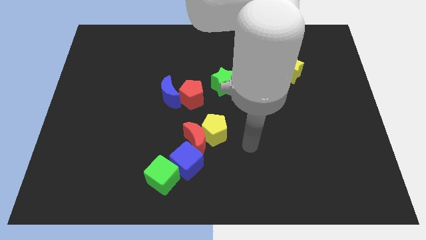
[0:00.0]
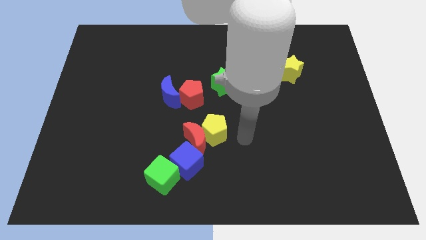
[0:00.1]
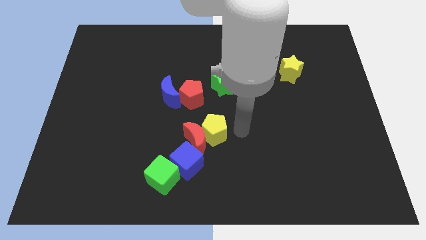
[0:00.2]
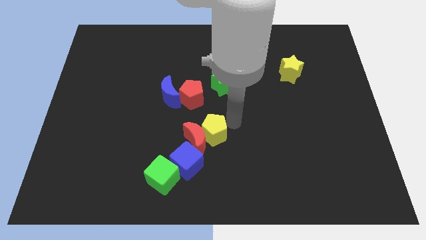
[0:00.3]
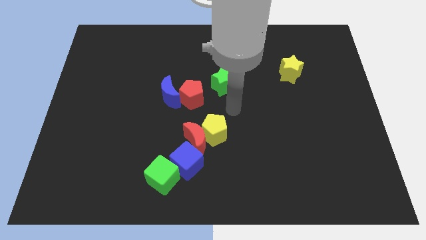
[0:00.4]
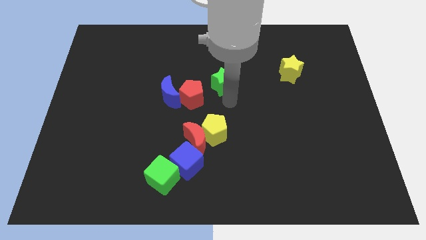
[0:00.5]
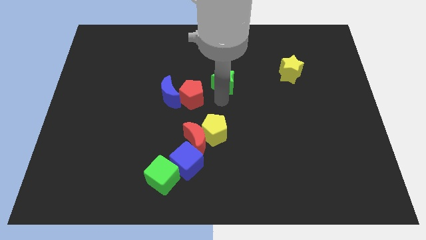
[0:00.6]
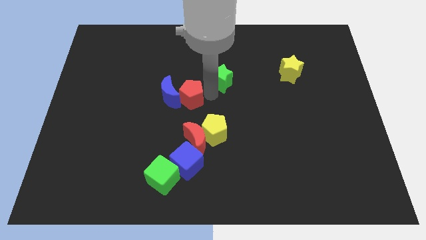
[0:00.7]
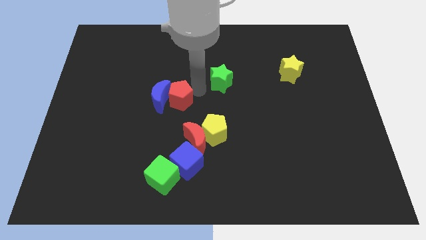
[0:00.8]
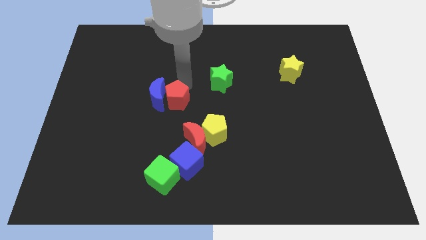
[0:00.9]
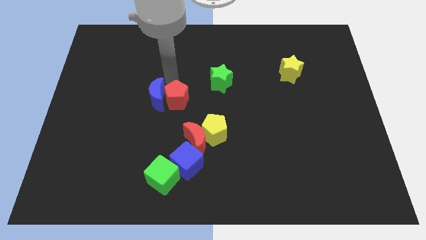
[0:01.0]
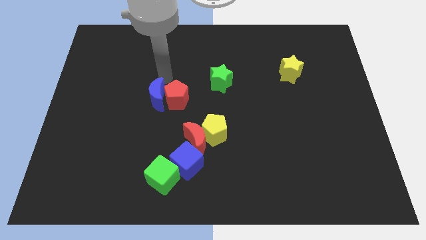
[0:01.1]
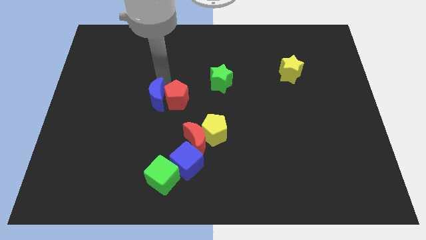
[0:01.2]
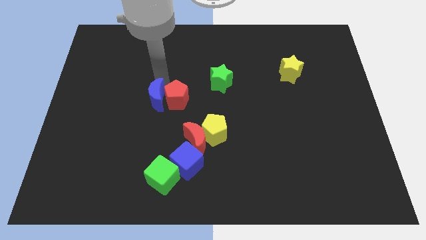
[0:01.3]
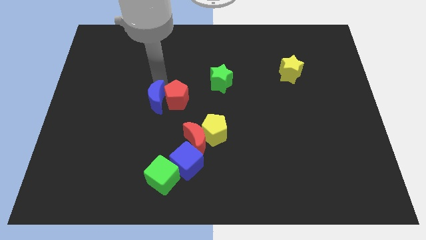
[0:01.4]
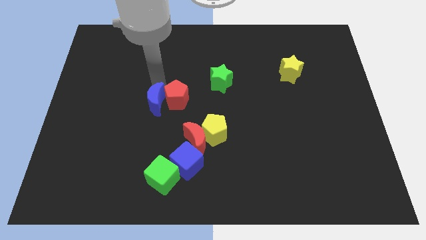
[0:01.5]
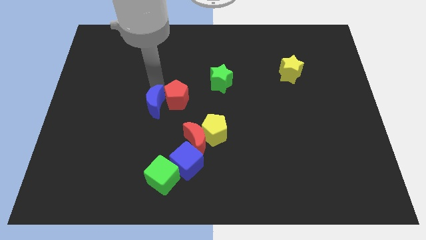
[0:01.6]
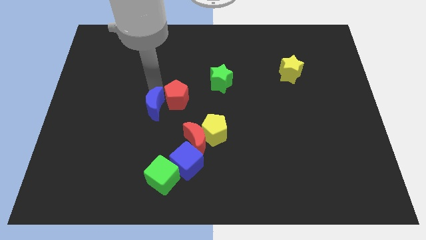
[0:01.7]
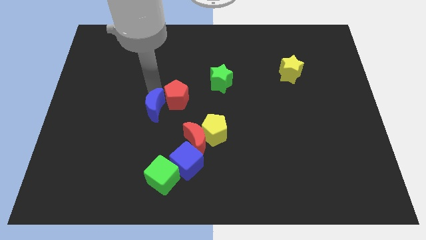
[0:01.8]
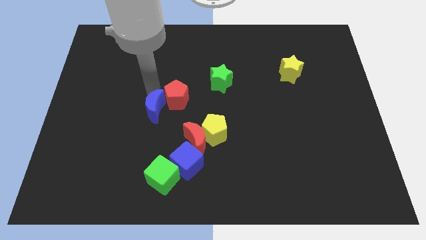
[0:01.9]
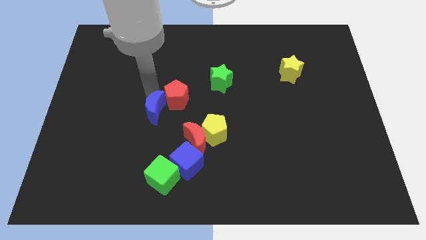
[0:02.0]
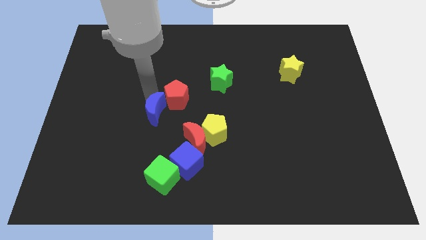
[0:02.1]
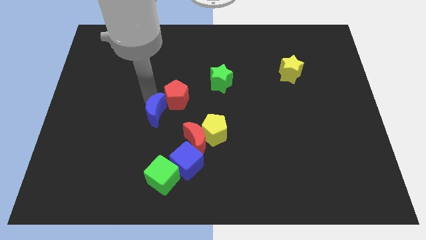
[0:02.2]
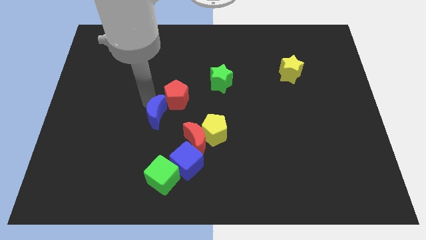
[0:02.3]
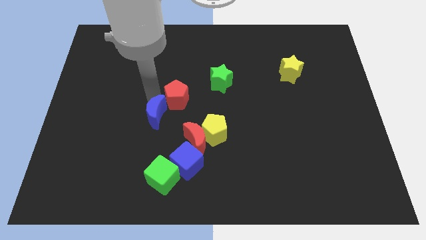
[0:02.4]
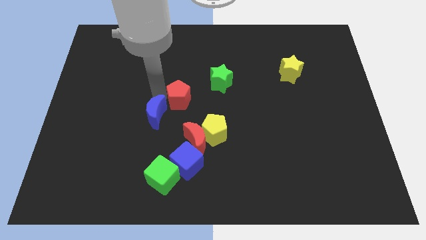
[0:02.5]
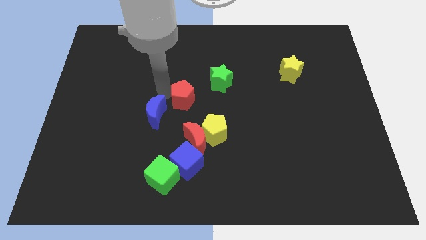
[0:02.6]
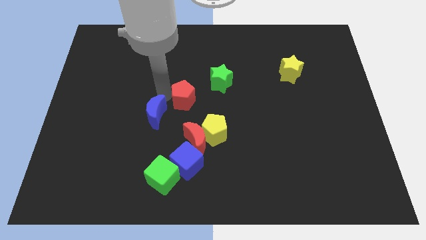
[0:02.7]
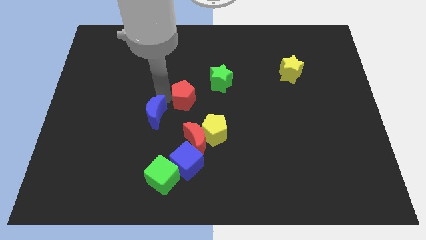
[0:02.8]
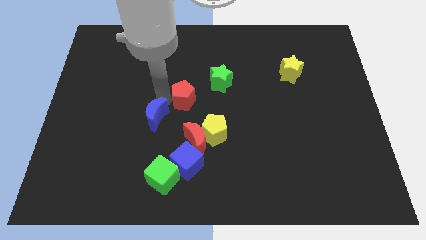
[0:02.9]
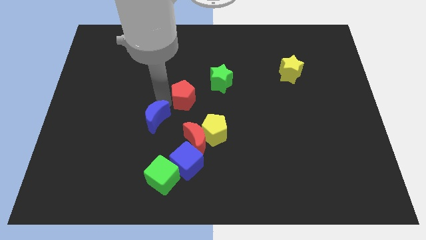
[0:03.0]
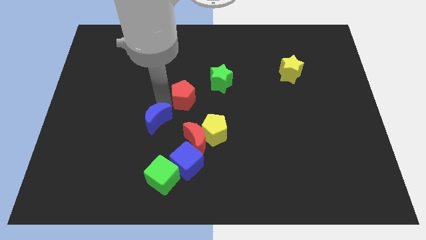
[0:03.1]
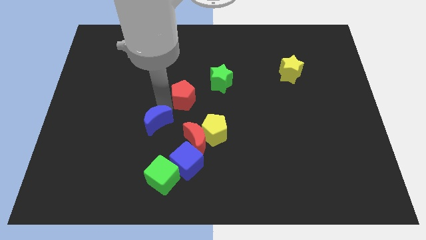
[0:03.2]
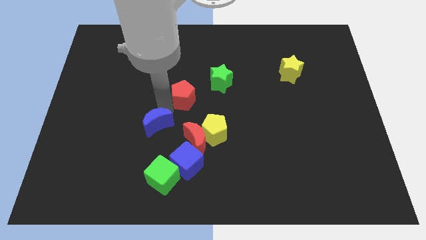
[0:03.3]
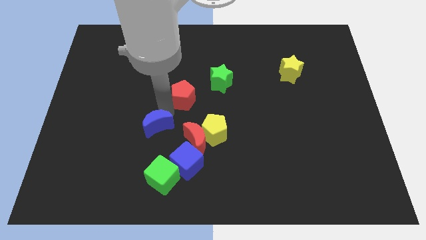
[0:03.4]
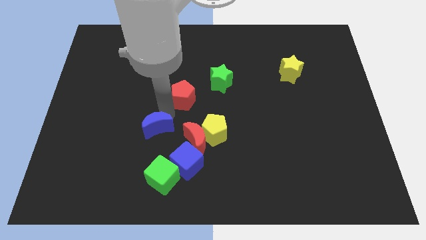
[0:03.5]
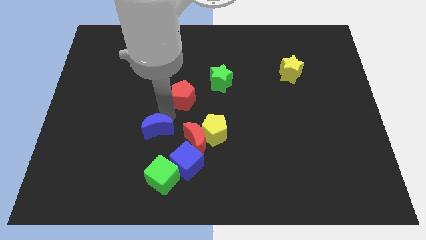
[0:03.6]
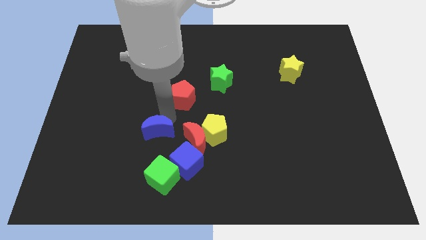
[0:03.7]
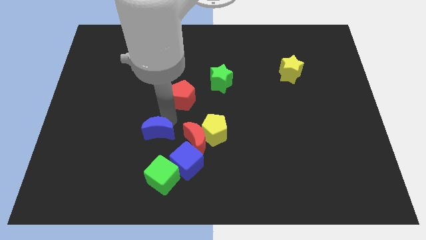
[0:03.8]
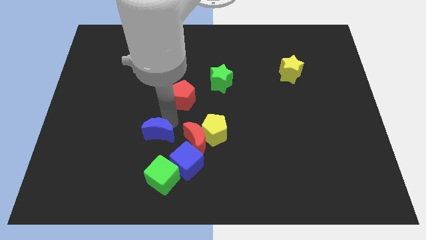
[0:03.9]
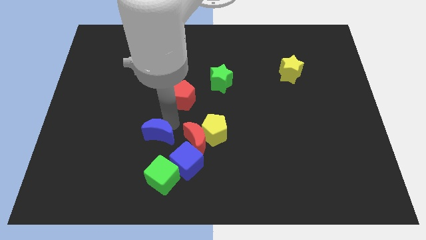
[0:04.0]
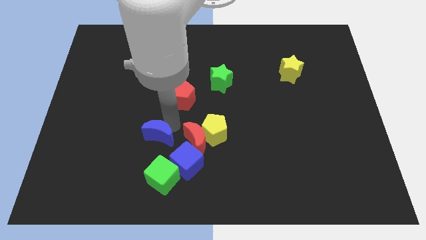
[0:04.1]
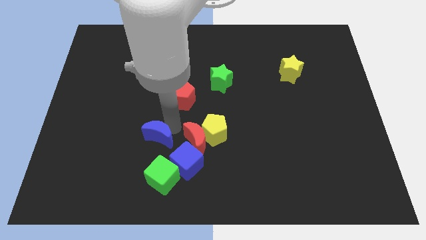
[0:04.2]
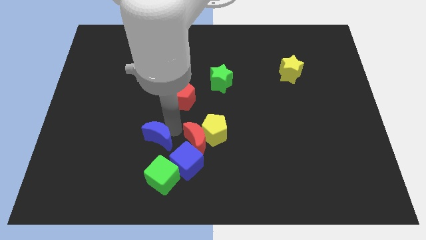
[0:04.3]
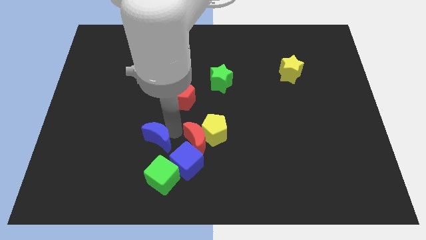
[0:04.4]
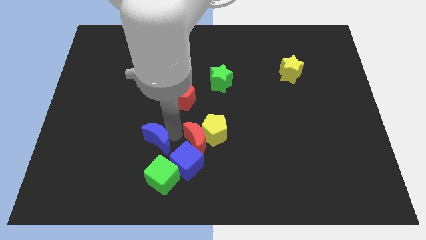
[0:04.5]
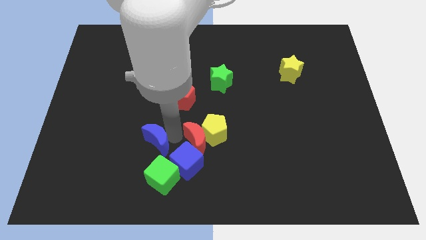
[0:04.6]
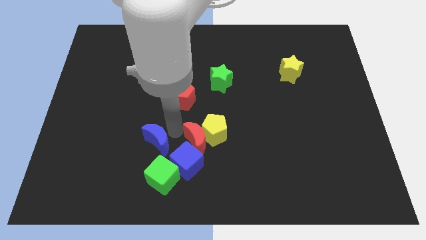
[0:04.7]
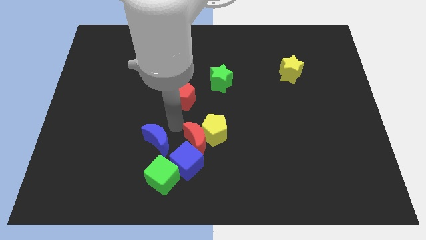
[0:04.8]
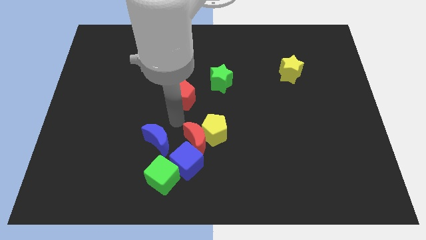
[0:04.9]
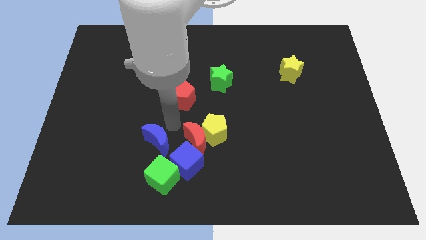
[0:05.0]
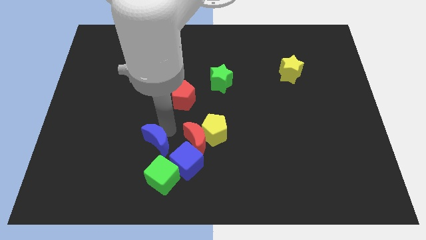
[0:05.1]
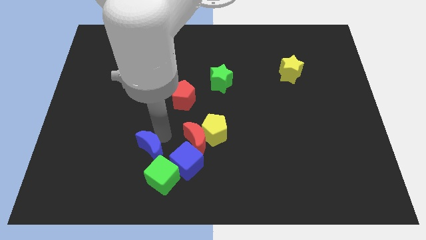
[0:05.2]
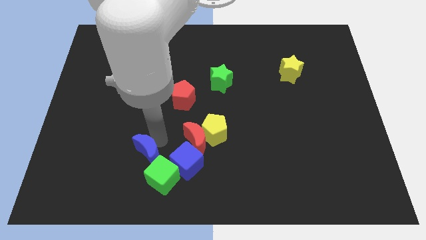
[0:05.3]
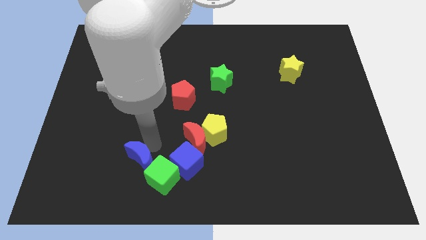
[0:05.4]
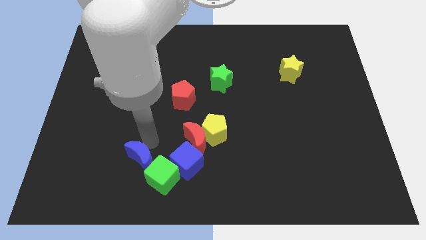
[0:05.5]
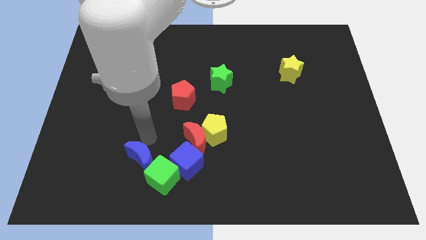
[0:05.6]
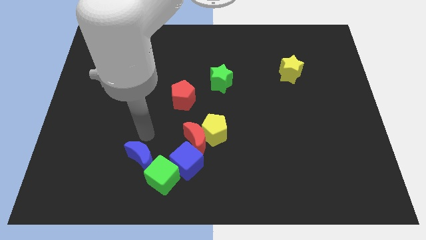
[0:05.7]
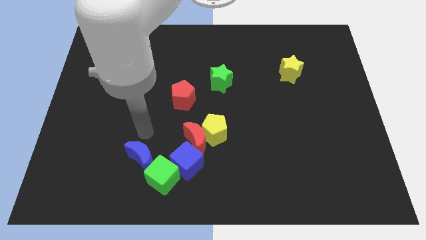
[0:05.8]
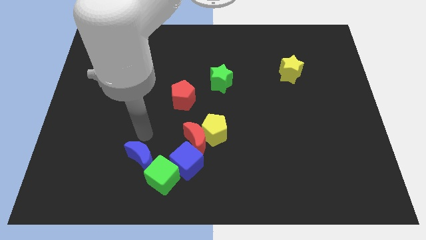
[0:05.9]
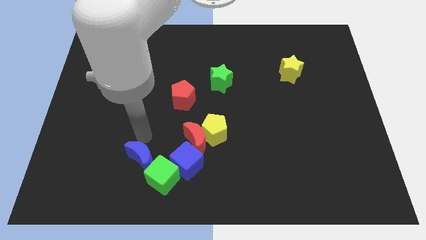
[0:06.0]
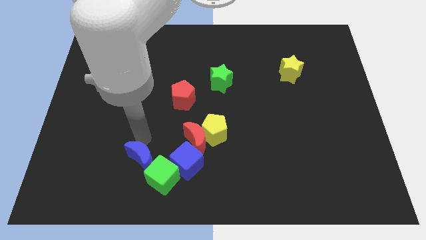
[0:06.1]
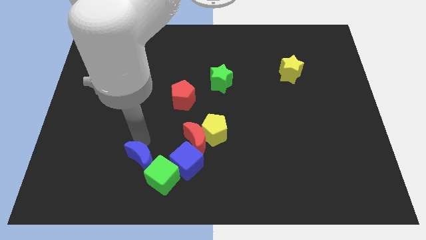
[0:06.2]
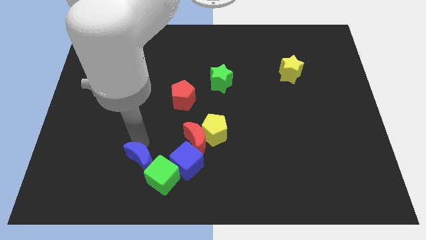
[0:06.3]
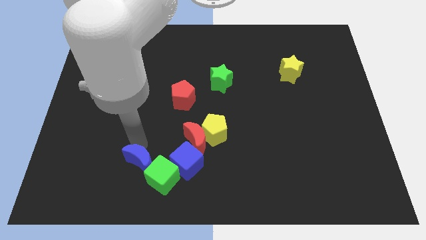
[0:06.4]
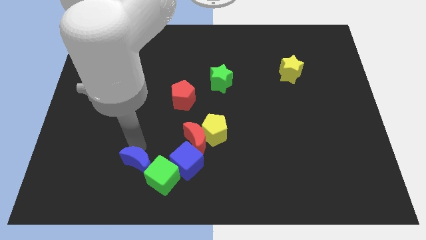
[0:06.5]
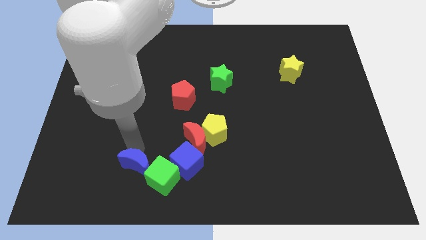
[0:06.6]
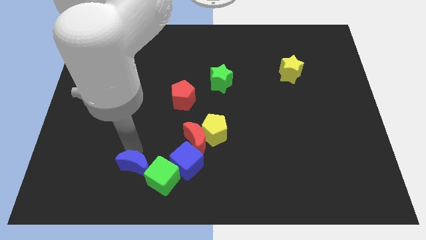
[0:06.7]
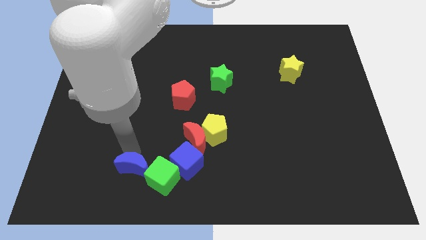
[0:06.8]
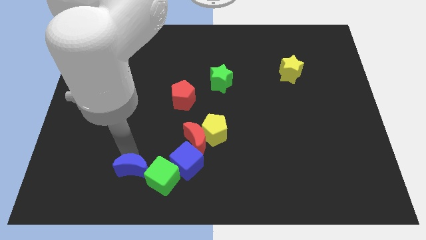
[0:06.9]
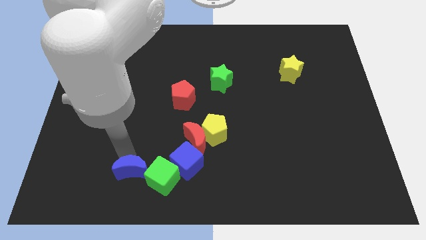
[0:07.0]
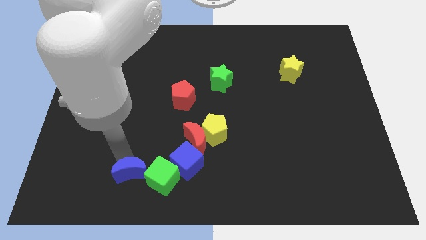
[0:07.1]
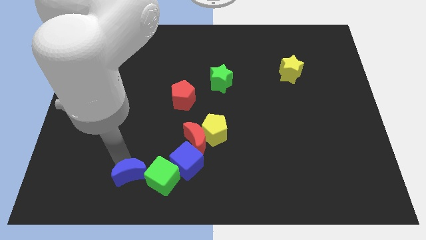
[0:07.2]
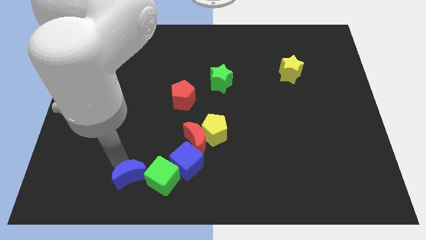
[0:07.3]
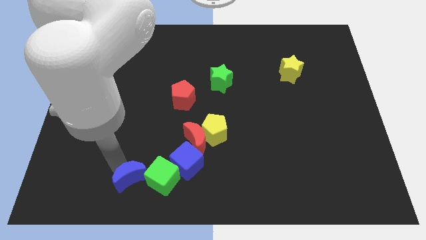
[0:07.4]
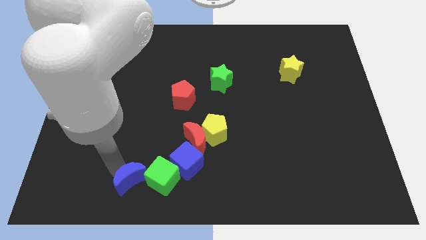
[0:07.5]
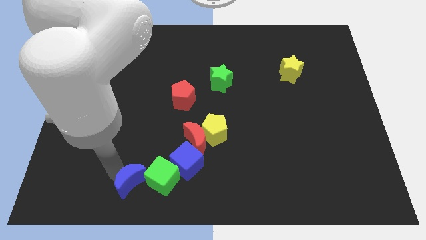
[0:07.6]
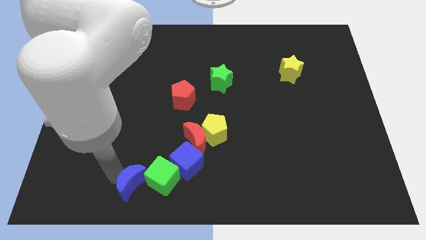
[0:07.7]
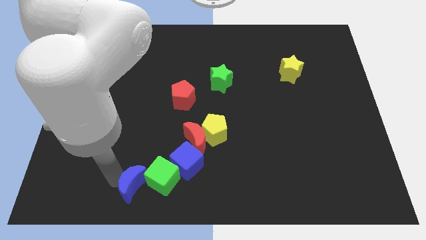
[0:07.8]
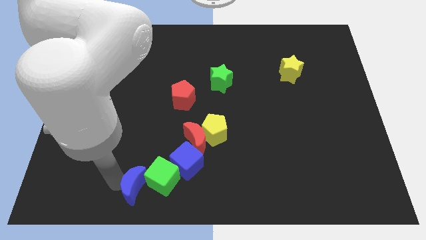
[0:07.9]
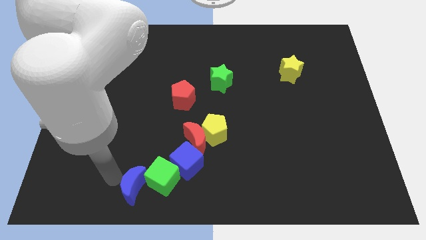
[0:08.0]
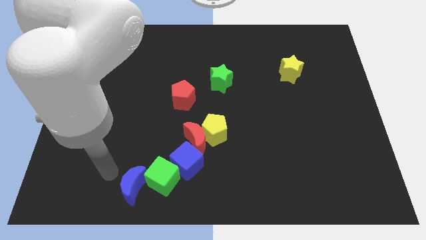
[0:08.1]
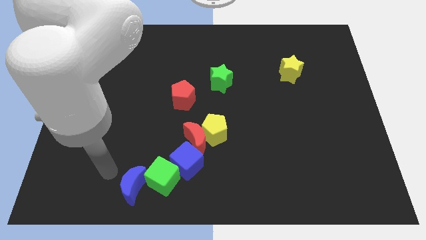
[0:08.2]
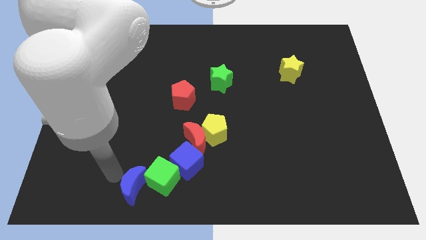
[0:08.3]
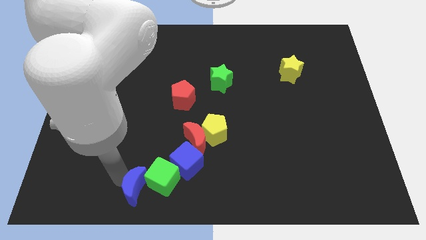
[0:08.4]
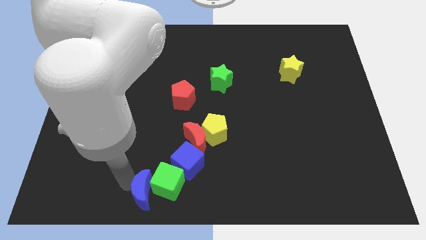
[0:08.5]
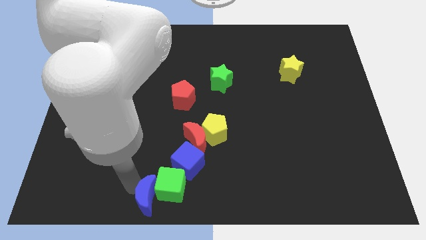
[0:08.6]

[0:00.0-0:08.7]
move the blue moon to the bottom side
